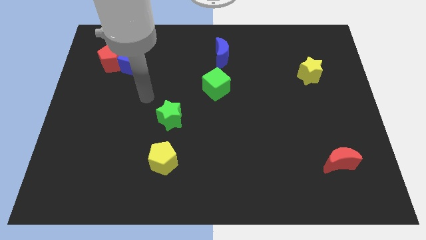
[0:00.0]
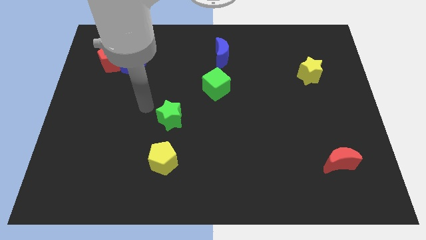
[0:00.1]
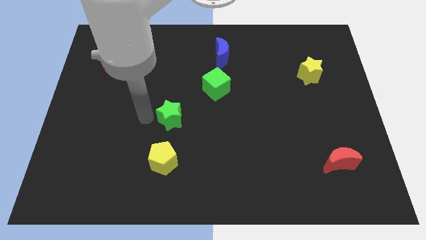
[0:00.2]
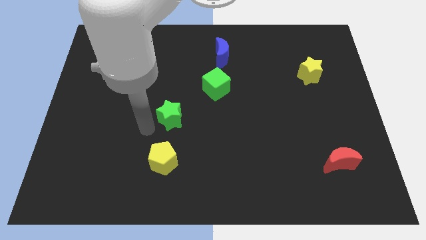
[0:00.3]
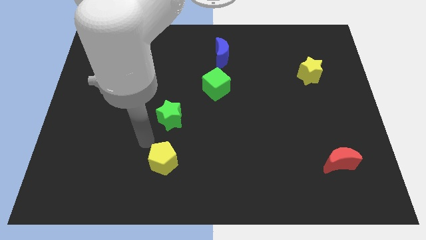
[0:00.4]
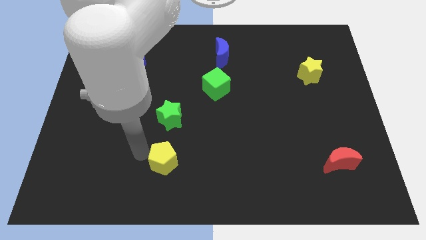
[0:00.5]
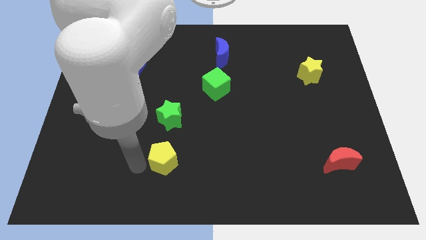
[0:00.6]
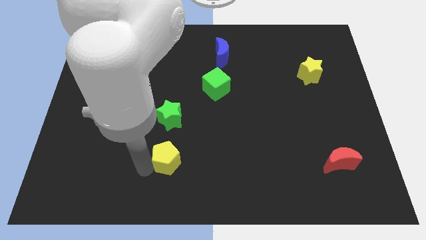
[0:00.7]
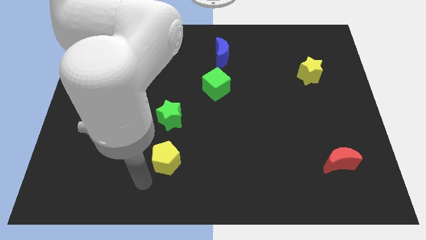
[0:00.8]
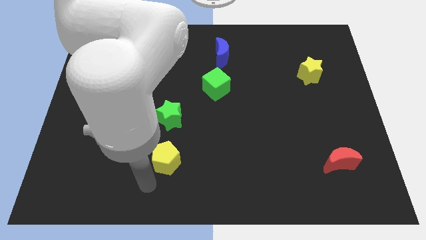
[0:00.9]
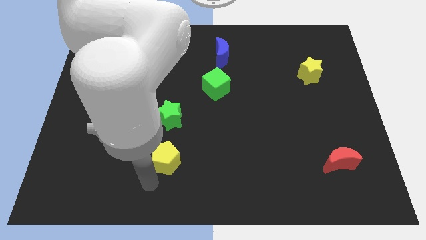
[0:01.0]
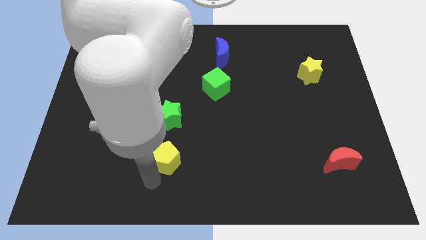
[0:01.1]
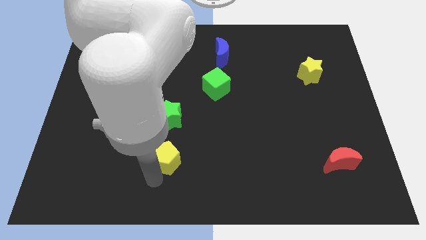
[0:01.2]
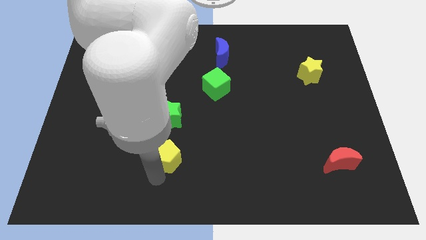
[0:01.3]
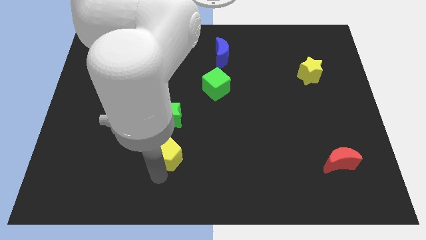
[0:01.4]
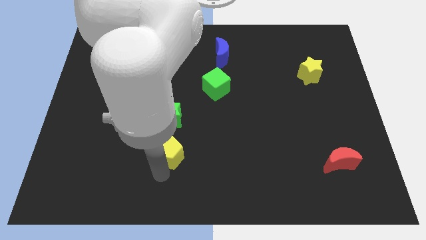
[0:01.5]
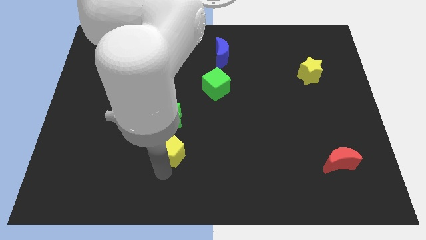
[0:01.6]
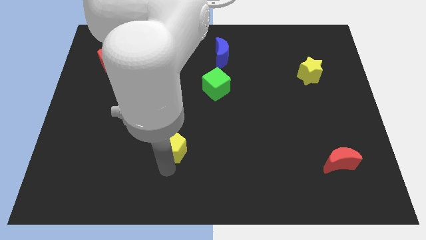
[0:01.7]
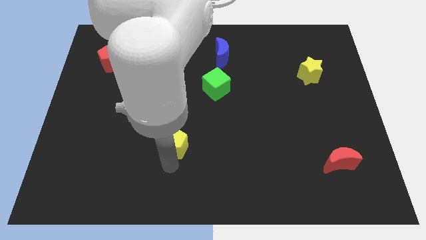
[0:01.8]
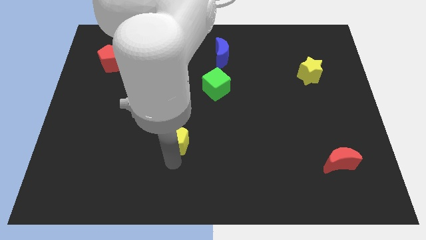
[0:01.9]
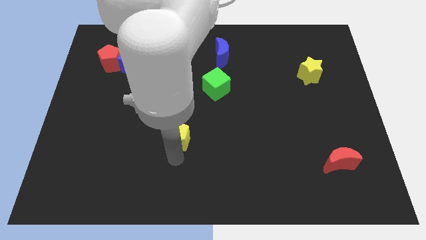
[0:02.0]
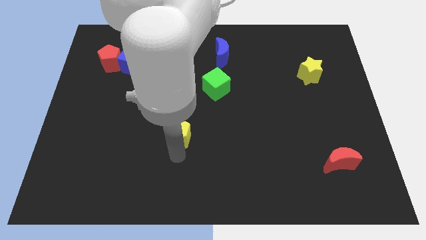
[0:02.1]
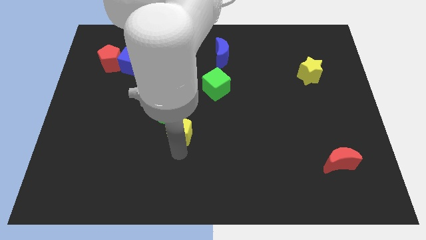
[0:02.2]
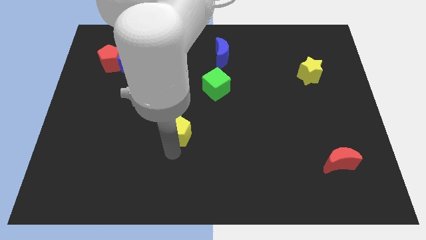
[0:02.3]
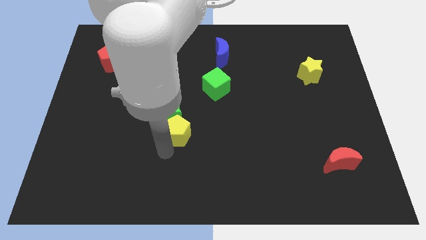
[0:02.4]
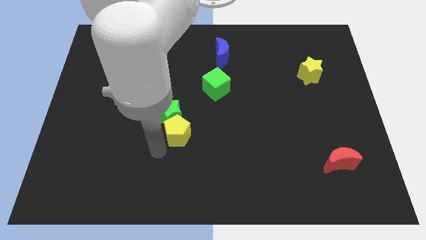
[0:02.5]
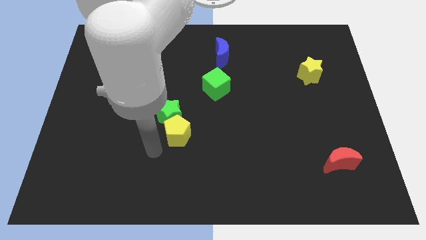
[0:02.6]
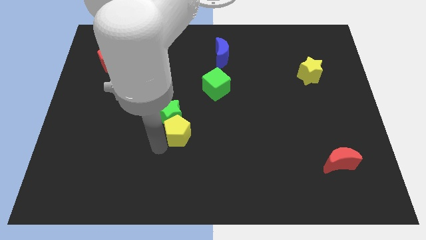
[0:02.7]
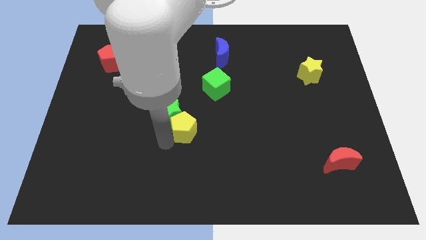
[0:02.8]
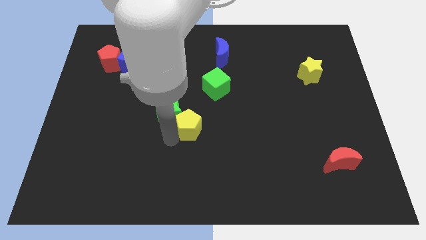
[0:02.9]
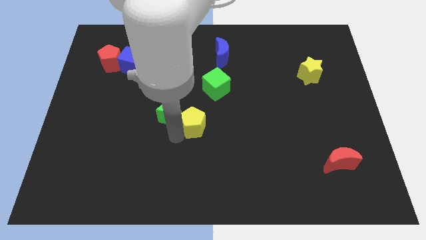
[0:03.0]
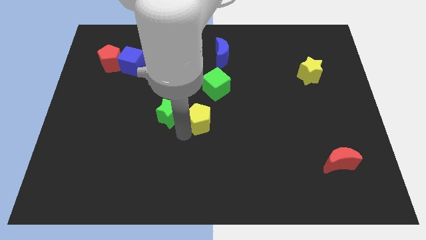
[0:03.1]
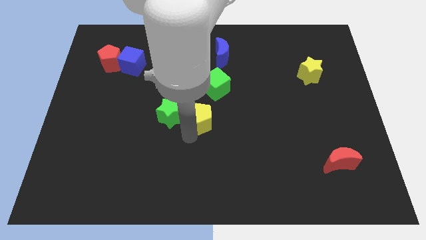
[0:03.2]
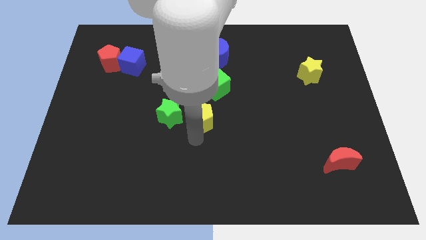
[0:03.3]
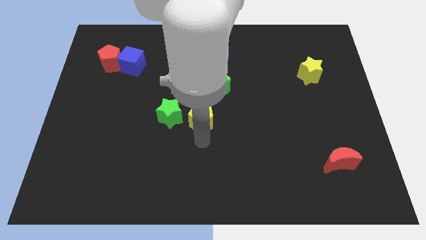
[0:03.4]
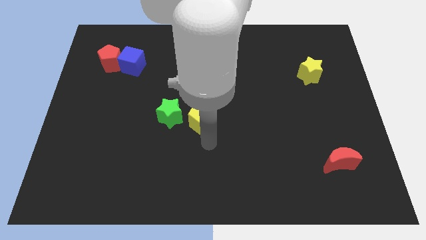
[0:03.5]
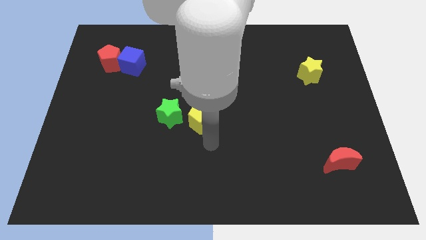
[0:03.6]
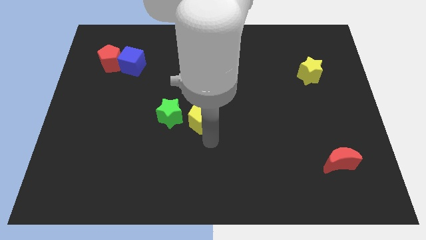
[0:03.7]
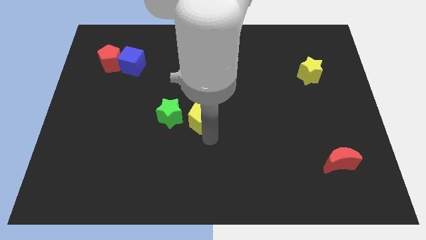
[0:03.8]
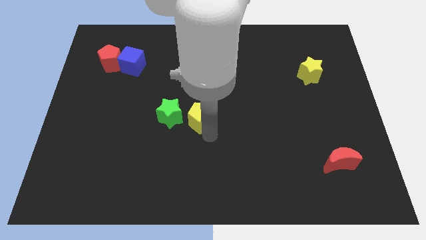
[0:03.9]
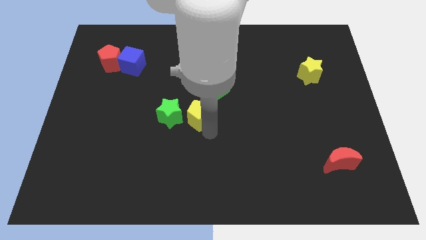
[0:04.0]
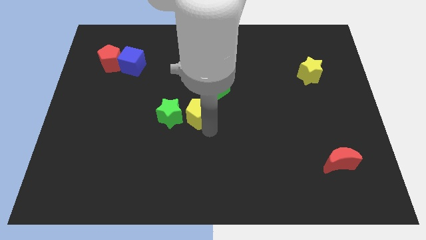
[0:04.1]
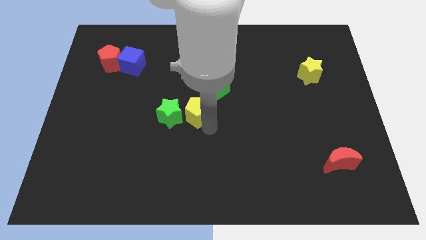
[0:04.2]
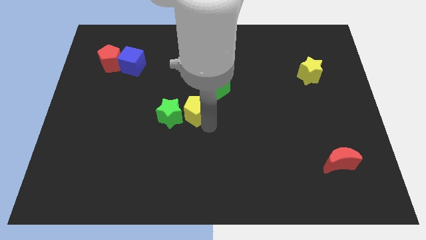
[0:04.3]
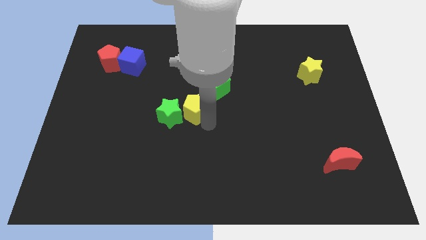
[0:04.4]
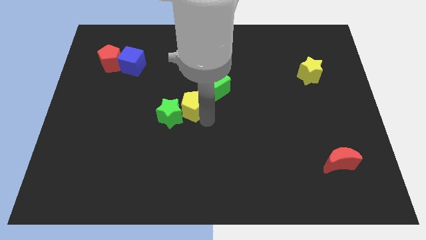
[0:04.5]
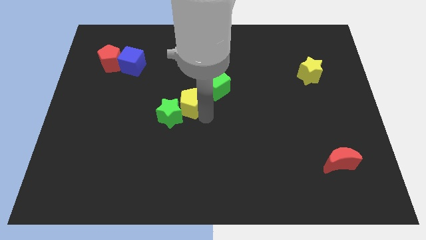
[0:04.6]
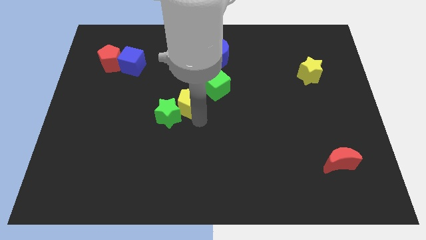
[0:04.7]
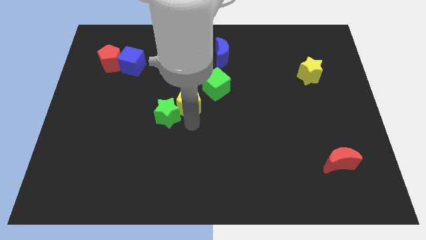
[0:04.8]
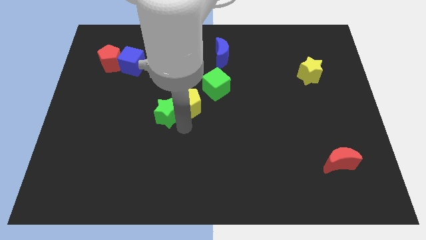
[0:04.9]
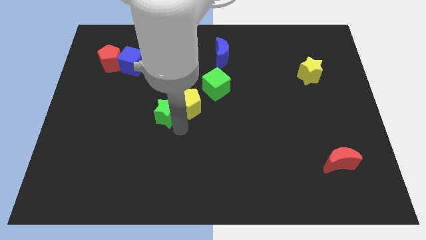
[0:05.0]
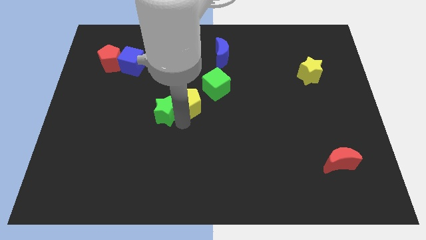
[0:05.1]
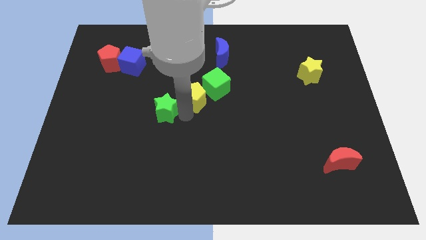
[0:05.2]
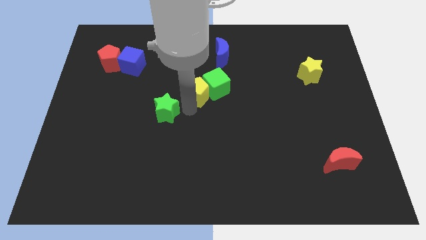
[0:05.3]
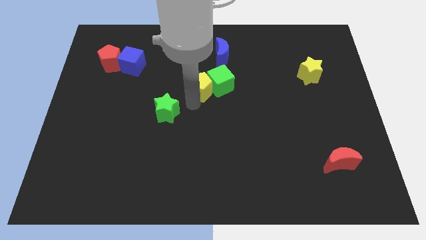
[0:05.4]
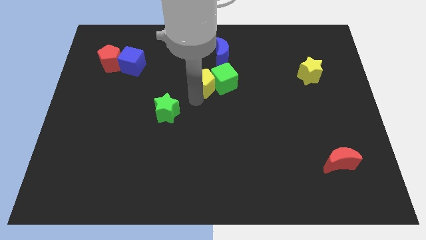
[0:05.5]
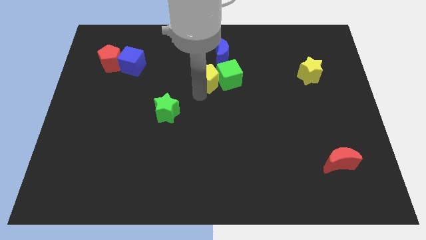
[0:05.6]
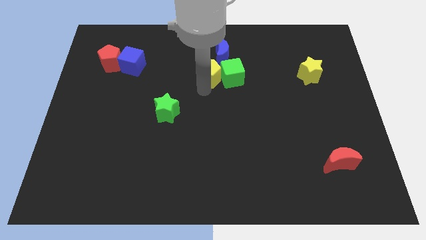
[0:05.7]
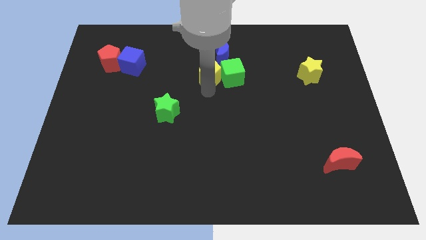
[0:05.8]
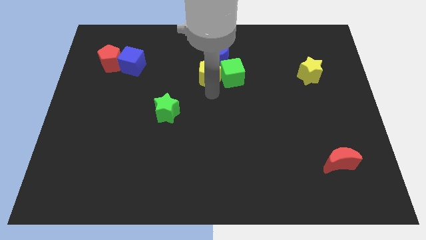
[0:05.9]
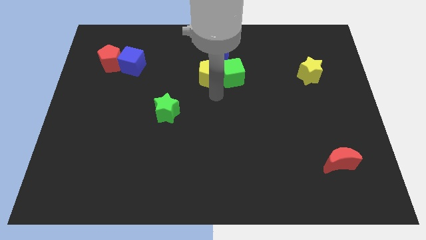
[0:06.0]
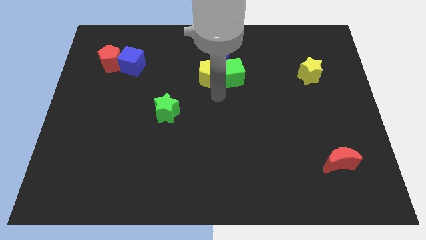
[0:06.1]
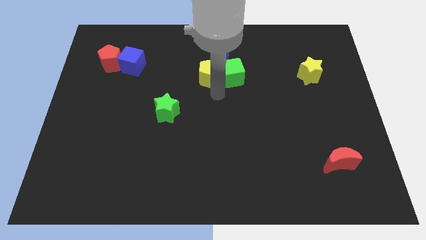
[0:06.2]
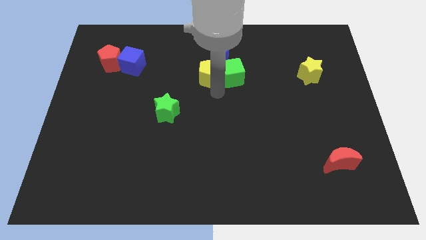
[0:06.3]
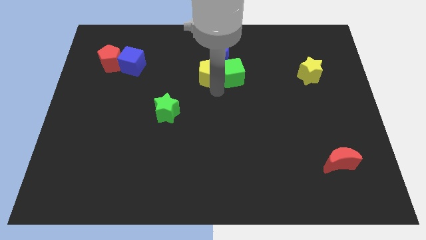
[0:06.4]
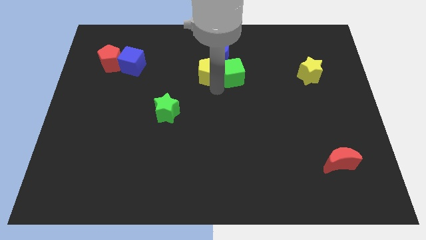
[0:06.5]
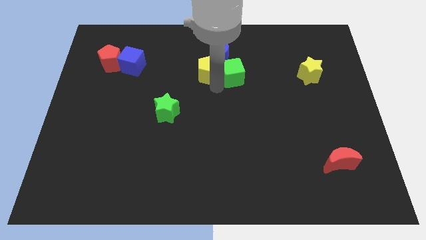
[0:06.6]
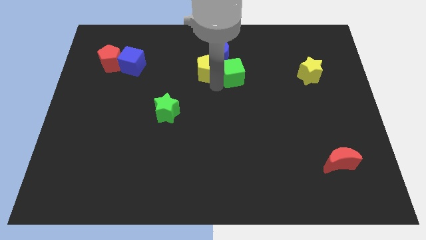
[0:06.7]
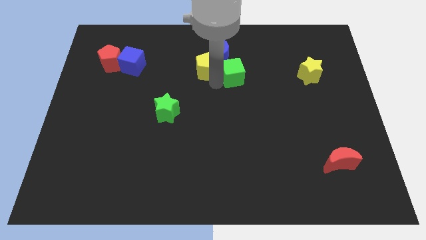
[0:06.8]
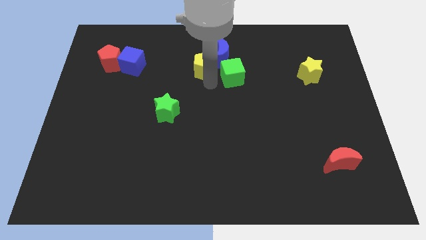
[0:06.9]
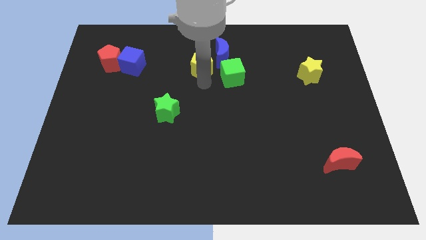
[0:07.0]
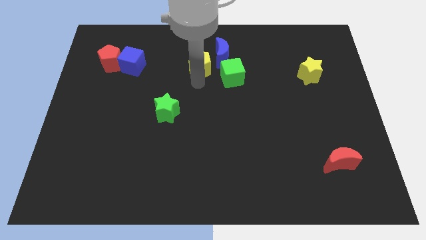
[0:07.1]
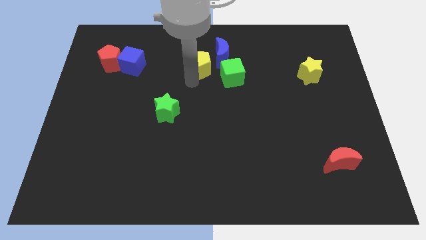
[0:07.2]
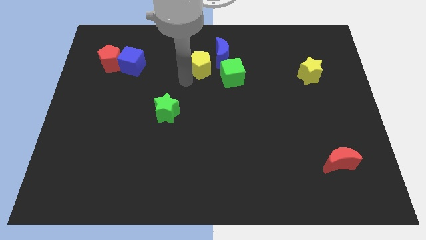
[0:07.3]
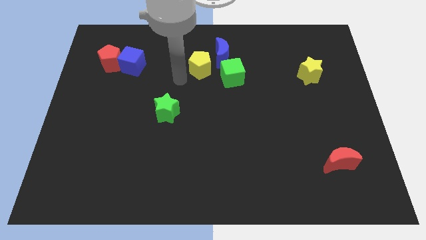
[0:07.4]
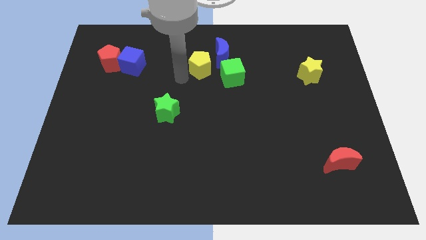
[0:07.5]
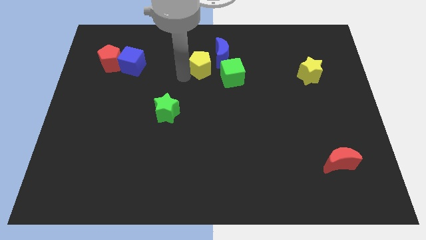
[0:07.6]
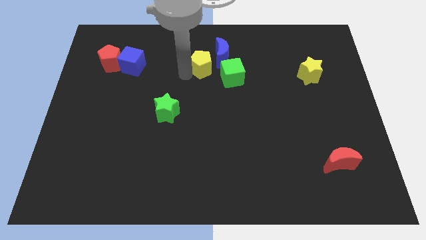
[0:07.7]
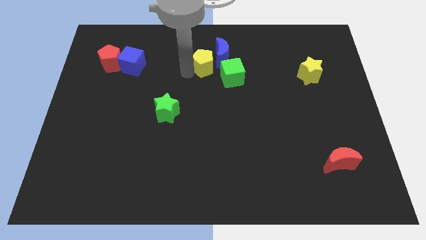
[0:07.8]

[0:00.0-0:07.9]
put the yellow pentagon towards the blue moon
